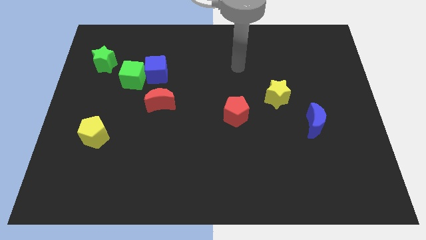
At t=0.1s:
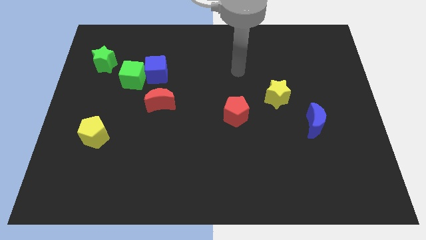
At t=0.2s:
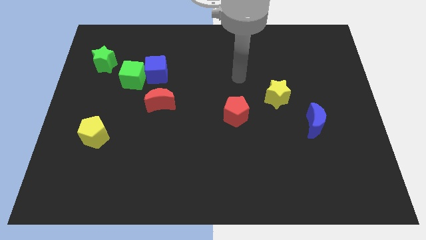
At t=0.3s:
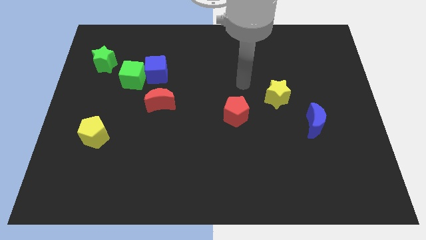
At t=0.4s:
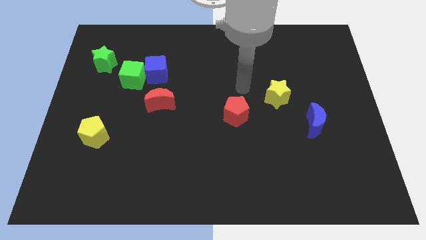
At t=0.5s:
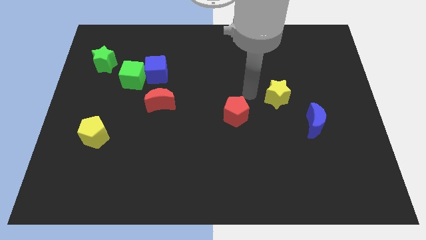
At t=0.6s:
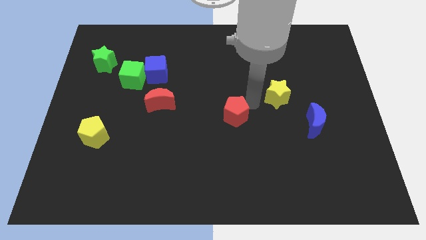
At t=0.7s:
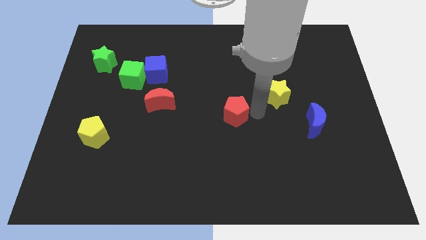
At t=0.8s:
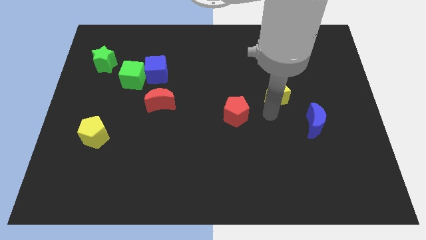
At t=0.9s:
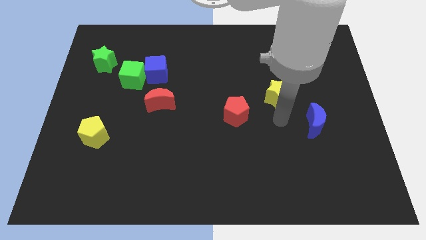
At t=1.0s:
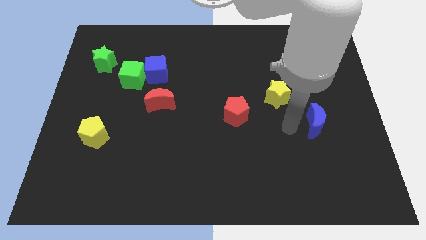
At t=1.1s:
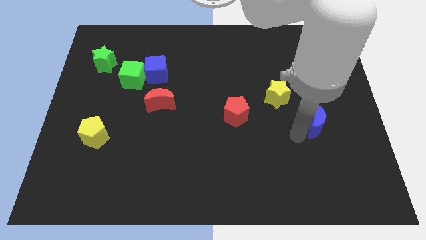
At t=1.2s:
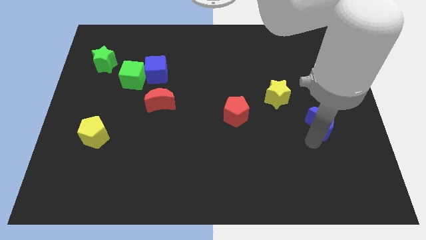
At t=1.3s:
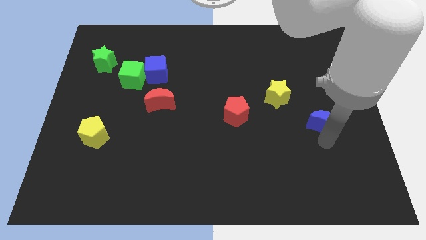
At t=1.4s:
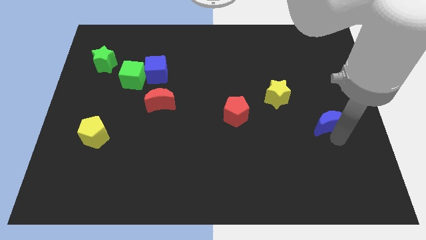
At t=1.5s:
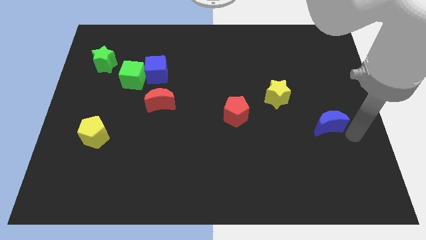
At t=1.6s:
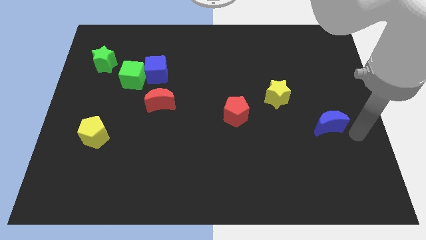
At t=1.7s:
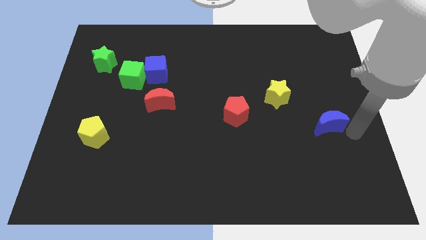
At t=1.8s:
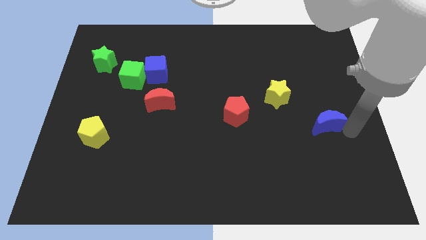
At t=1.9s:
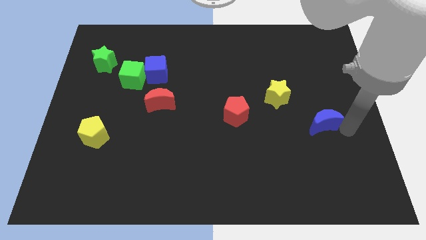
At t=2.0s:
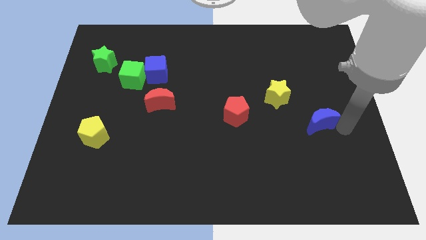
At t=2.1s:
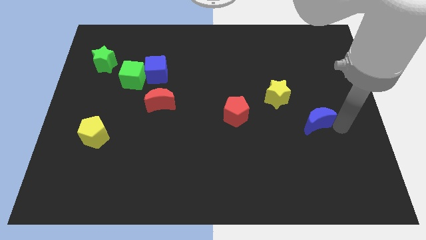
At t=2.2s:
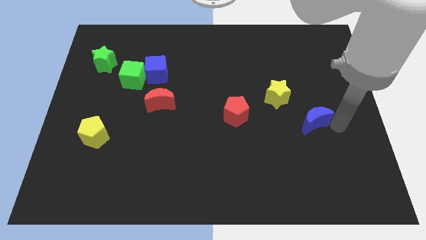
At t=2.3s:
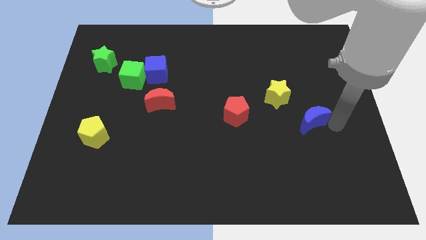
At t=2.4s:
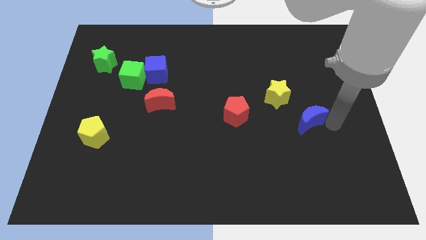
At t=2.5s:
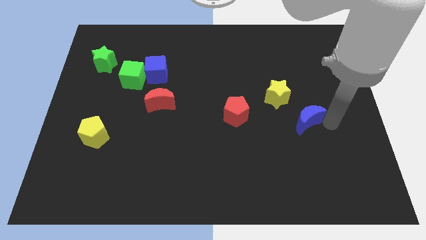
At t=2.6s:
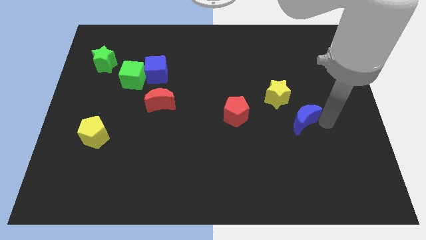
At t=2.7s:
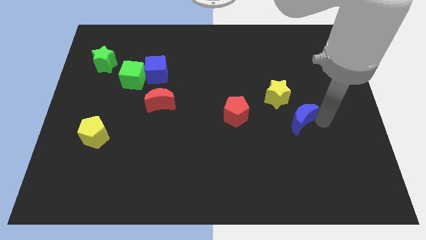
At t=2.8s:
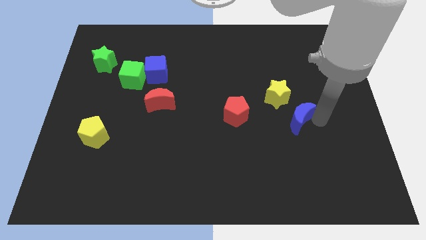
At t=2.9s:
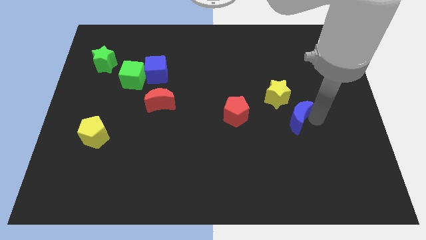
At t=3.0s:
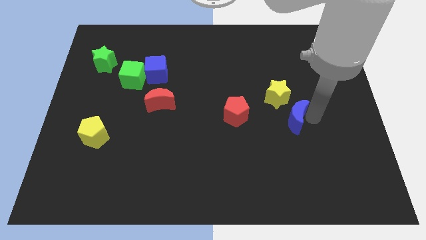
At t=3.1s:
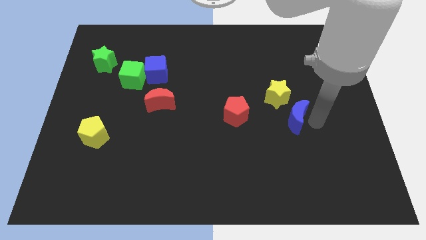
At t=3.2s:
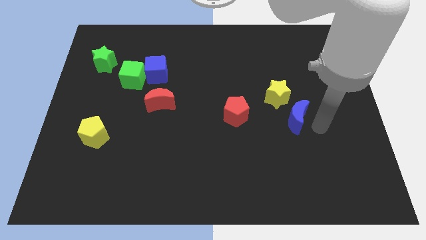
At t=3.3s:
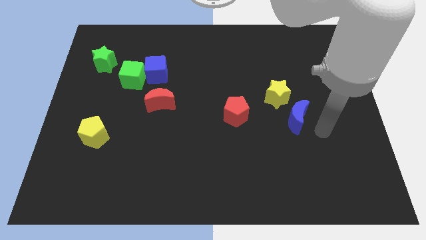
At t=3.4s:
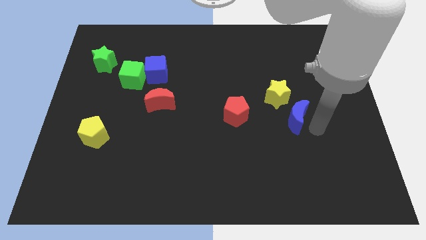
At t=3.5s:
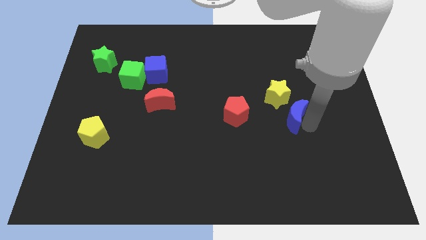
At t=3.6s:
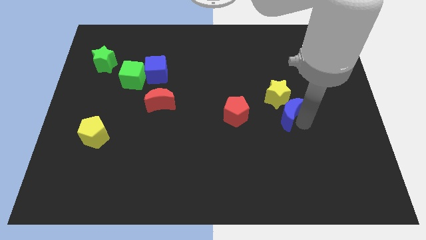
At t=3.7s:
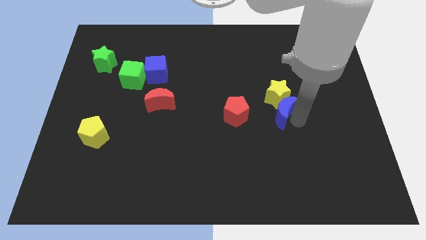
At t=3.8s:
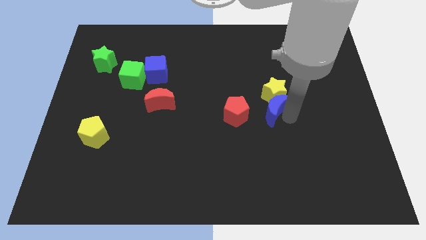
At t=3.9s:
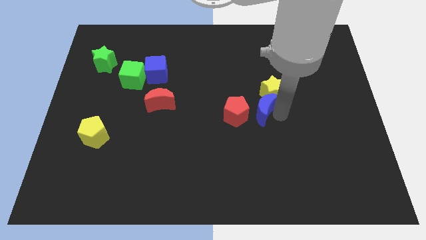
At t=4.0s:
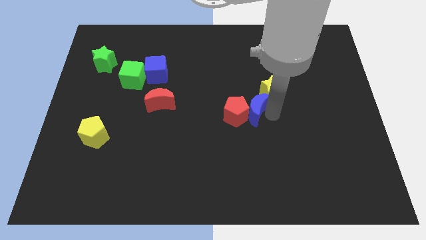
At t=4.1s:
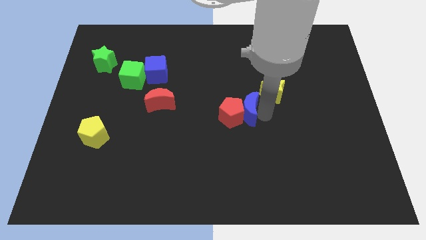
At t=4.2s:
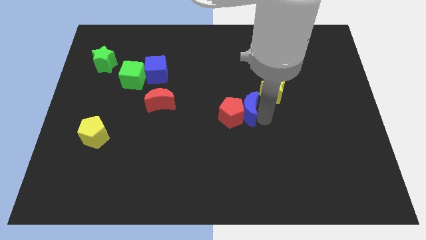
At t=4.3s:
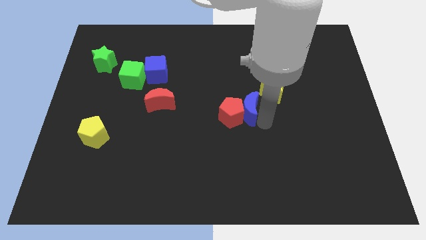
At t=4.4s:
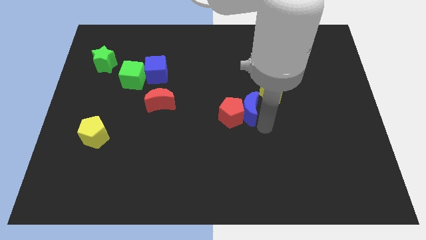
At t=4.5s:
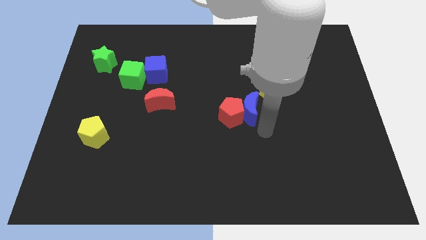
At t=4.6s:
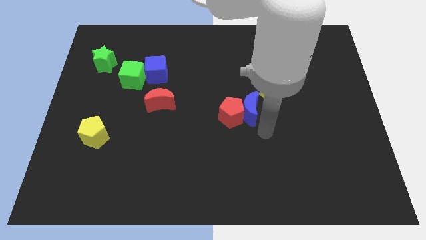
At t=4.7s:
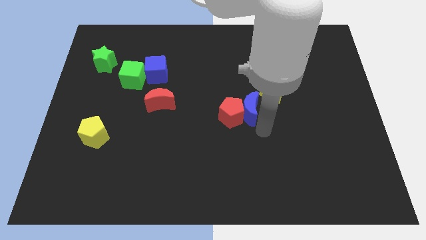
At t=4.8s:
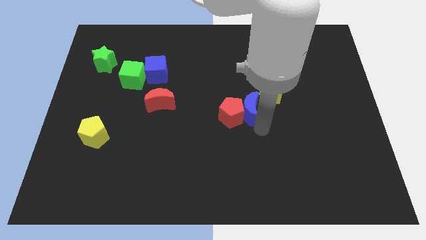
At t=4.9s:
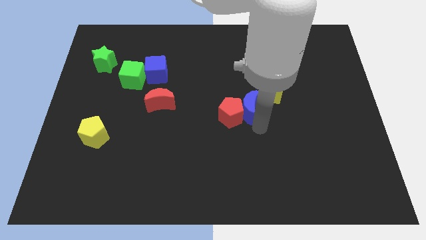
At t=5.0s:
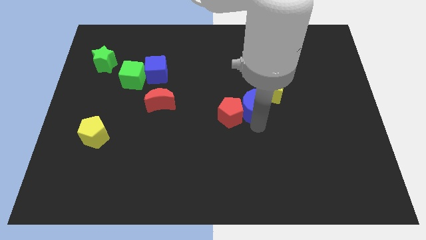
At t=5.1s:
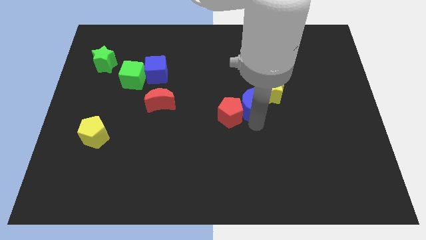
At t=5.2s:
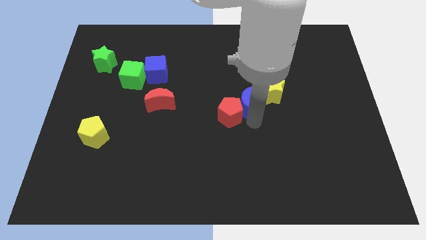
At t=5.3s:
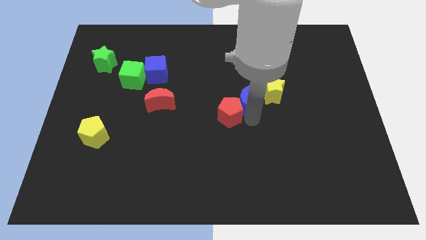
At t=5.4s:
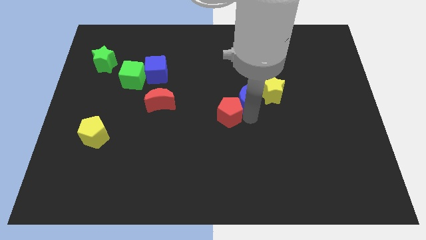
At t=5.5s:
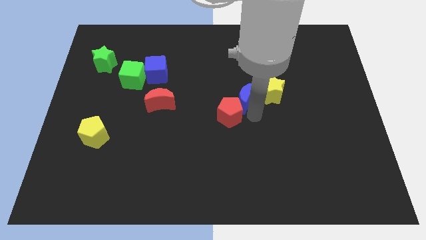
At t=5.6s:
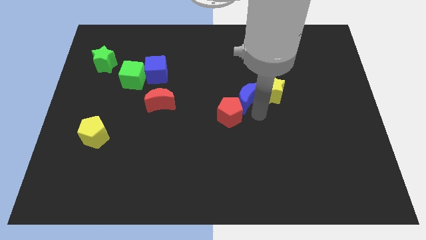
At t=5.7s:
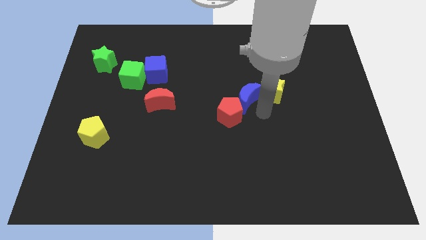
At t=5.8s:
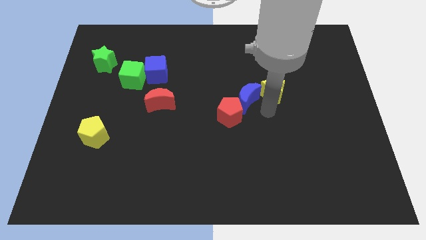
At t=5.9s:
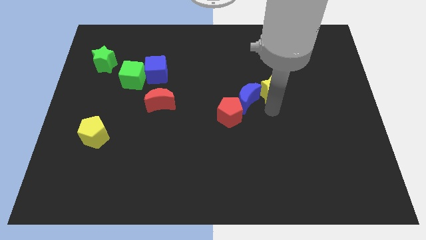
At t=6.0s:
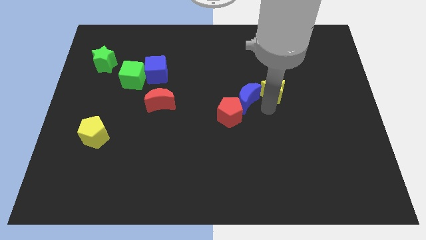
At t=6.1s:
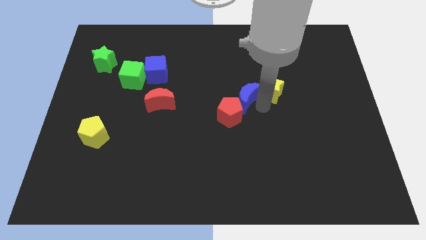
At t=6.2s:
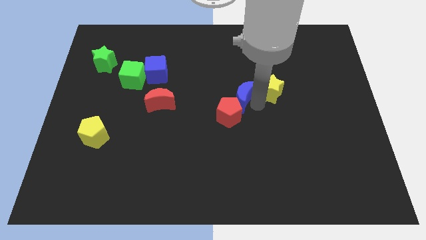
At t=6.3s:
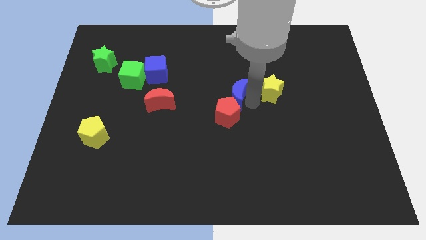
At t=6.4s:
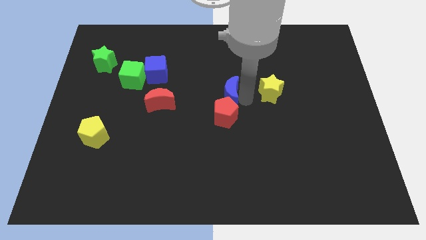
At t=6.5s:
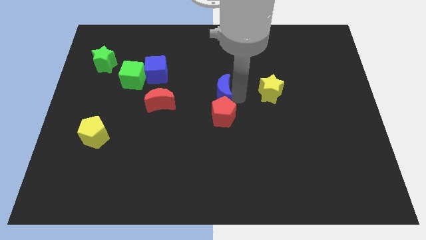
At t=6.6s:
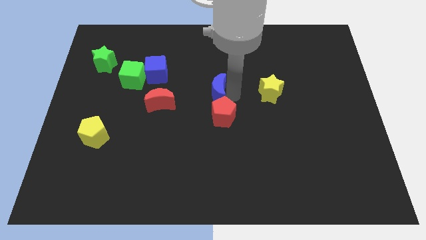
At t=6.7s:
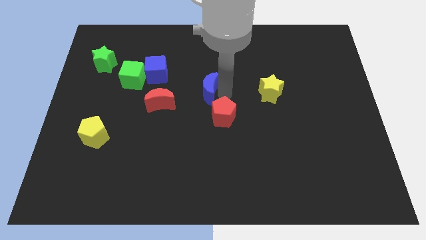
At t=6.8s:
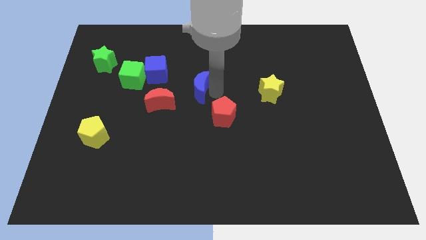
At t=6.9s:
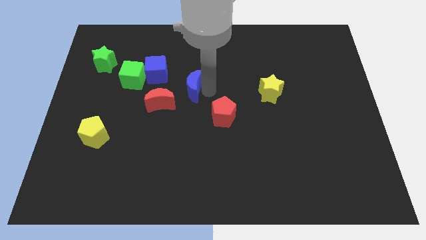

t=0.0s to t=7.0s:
move the blue moon diagonally down and to the right of the blue cube
